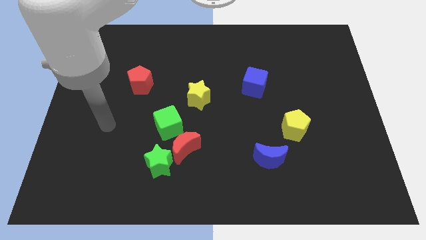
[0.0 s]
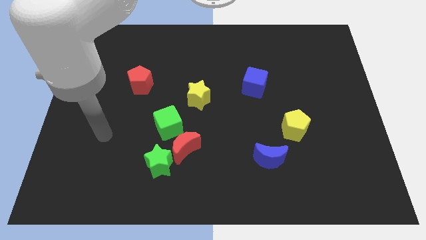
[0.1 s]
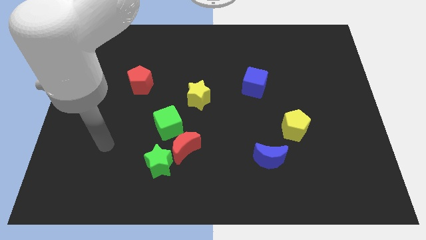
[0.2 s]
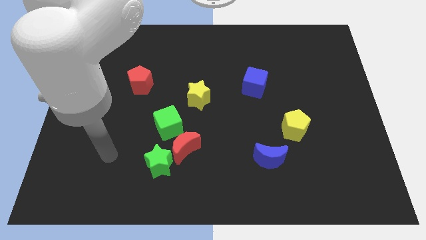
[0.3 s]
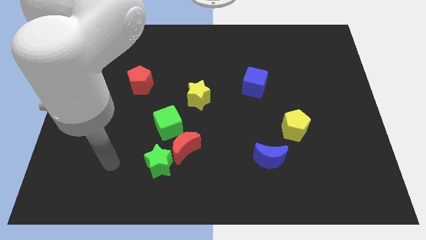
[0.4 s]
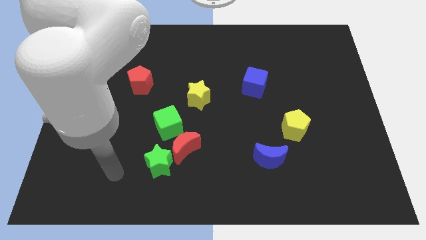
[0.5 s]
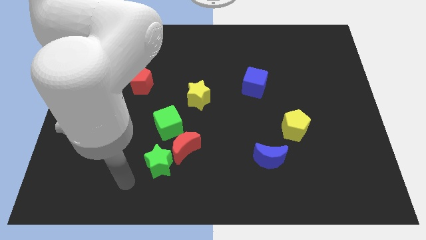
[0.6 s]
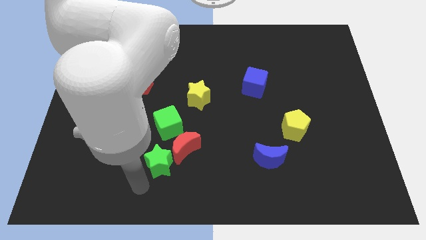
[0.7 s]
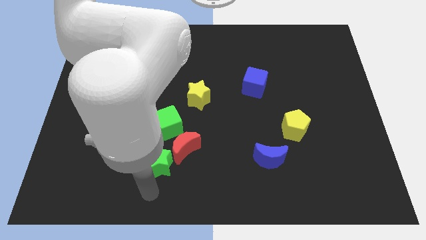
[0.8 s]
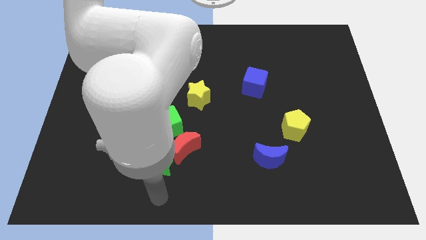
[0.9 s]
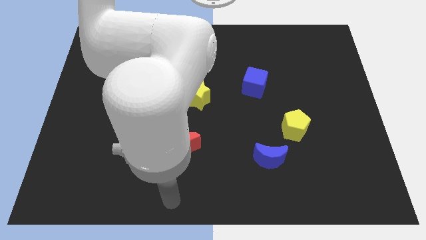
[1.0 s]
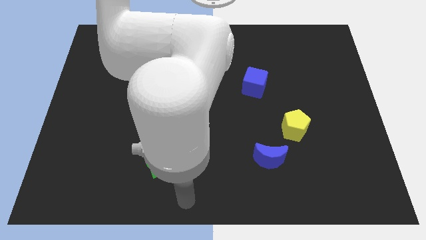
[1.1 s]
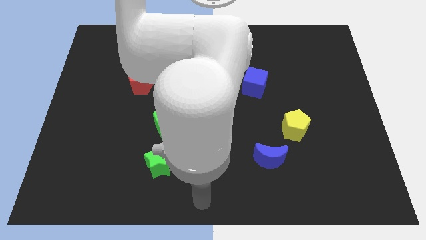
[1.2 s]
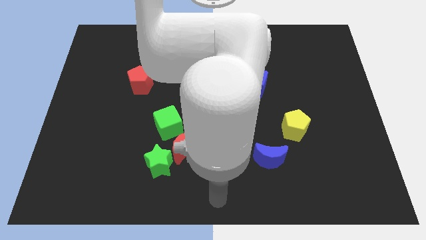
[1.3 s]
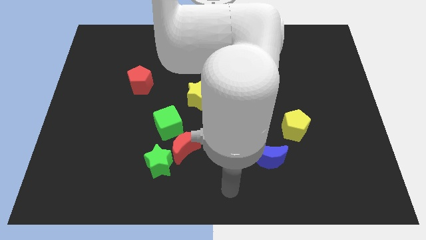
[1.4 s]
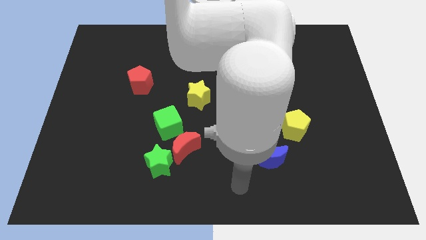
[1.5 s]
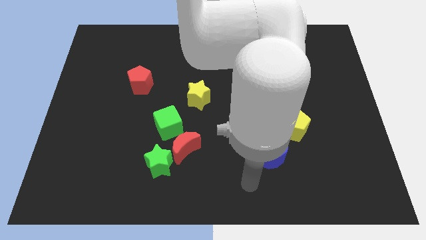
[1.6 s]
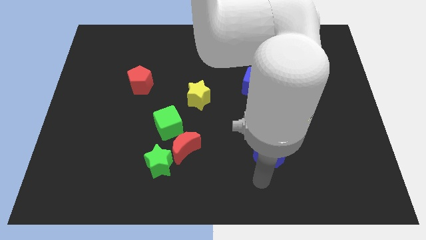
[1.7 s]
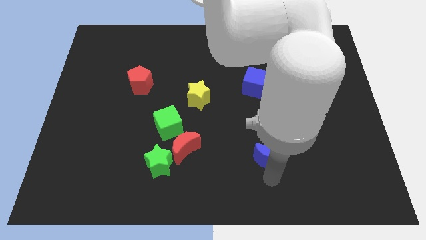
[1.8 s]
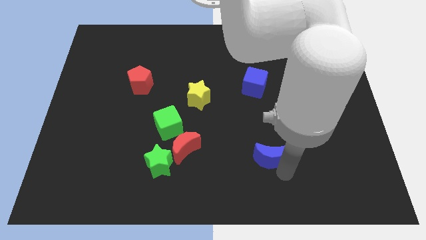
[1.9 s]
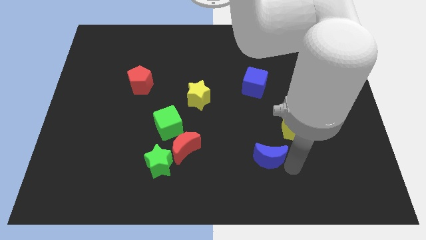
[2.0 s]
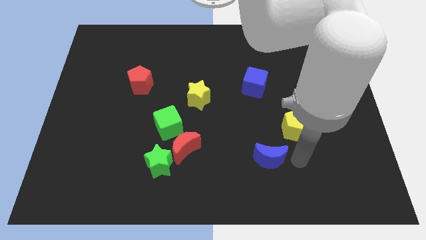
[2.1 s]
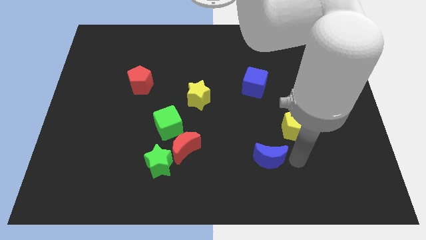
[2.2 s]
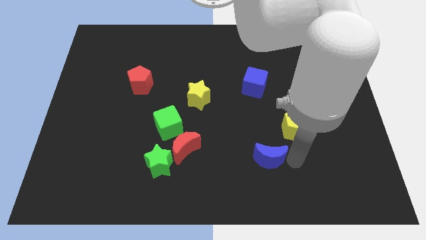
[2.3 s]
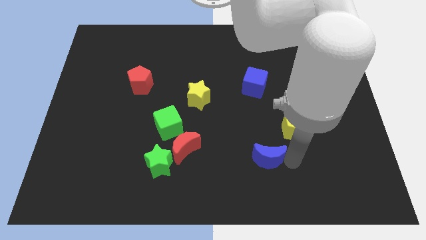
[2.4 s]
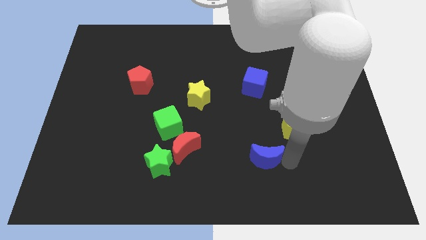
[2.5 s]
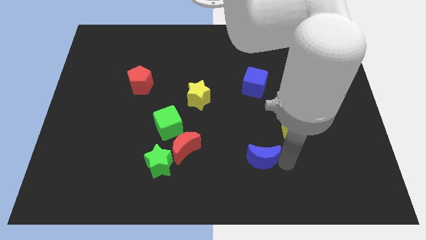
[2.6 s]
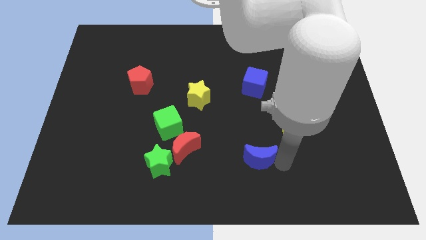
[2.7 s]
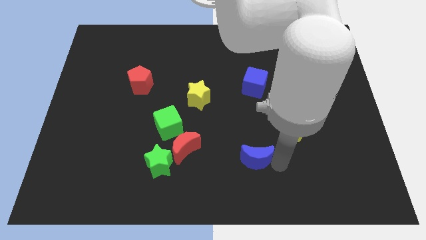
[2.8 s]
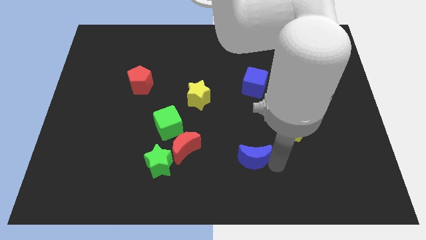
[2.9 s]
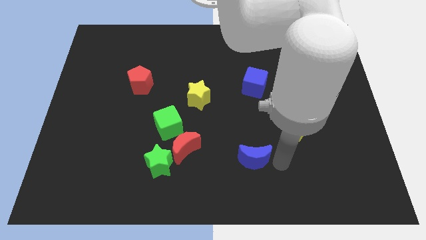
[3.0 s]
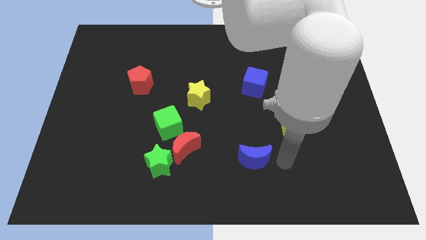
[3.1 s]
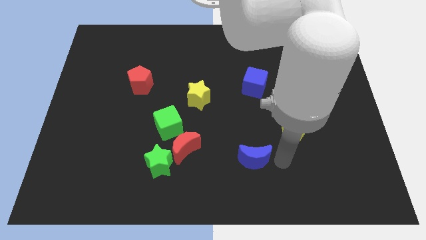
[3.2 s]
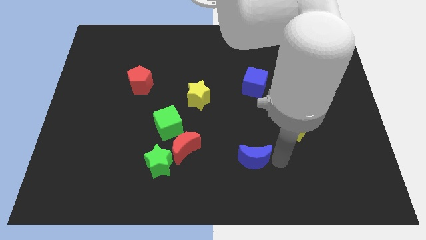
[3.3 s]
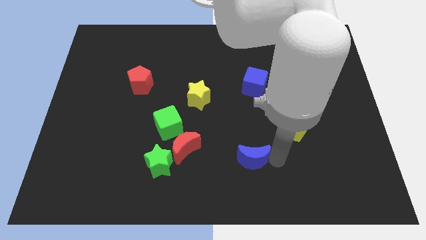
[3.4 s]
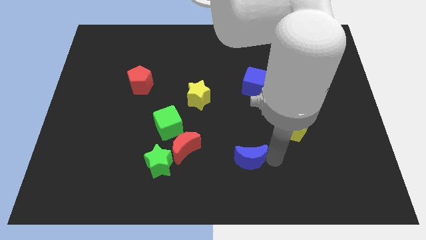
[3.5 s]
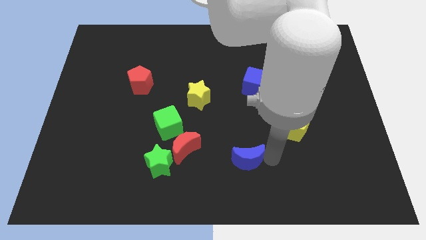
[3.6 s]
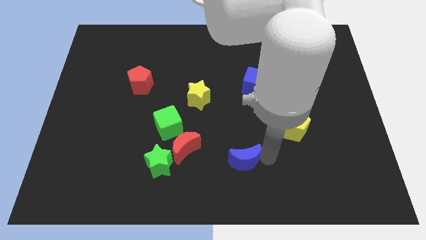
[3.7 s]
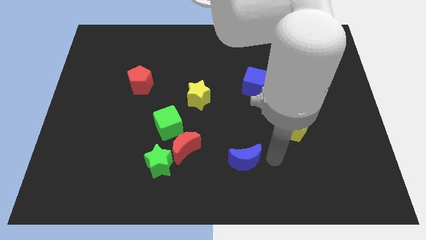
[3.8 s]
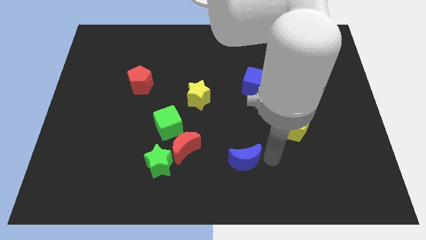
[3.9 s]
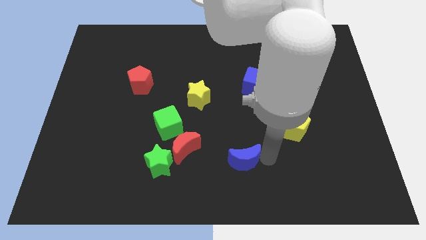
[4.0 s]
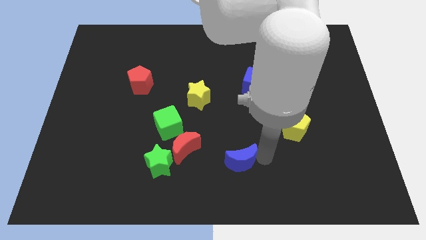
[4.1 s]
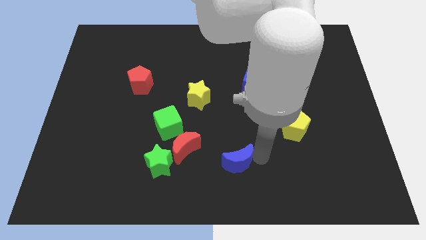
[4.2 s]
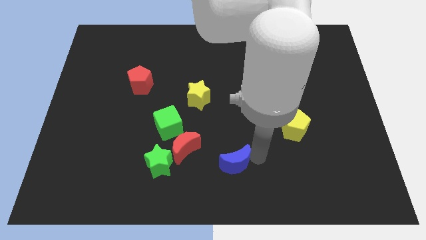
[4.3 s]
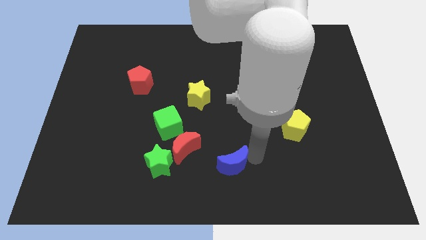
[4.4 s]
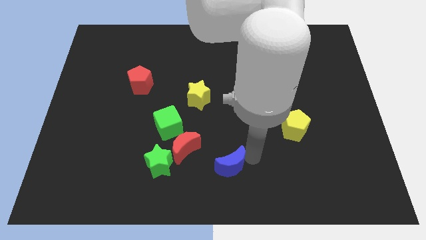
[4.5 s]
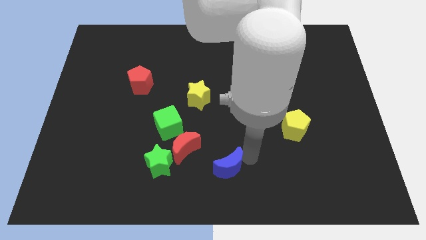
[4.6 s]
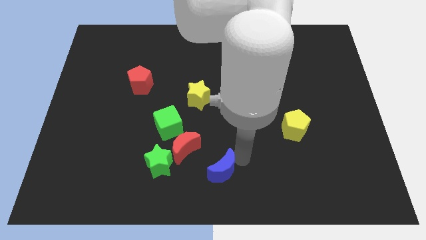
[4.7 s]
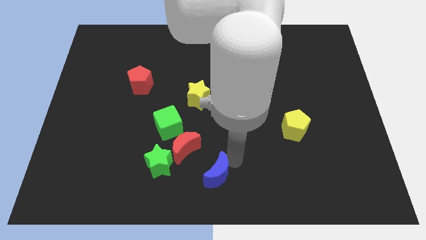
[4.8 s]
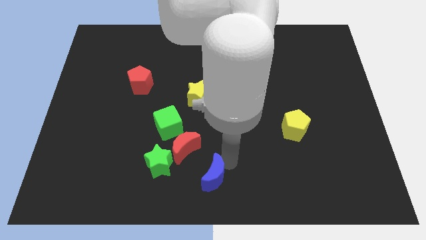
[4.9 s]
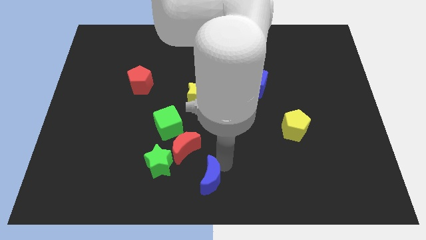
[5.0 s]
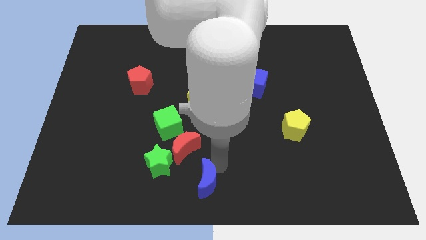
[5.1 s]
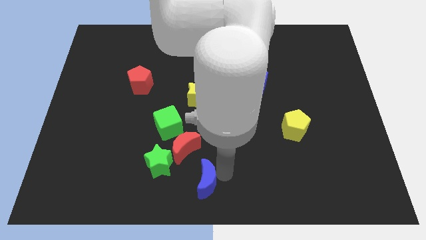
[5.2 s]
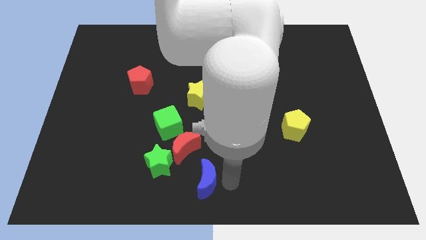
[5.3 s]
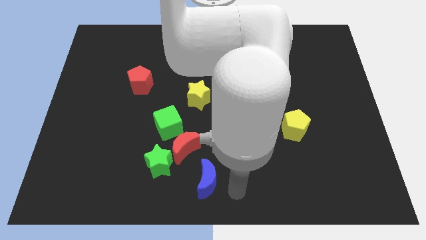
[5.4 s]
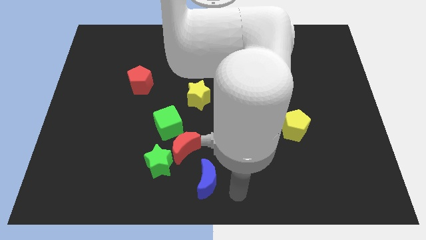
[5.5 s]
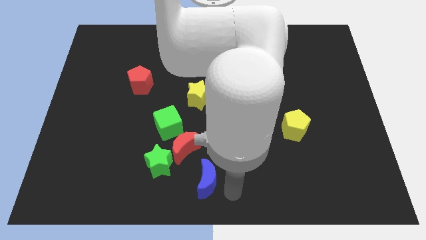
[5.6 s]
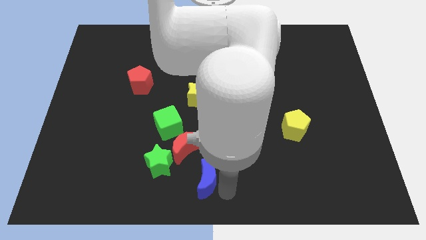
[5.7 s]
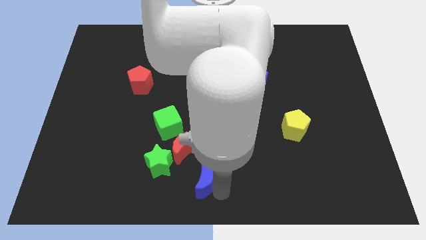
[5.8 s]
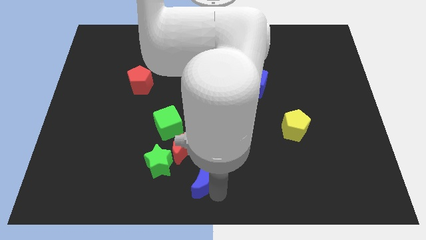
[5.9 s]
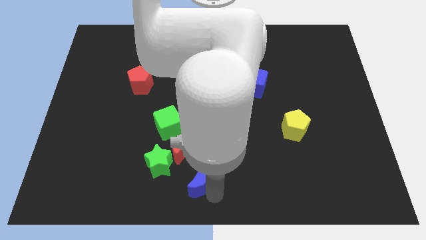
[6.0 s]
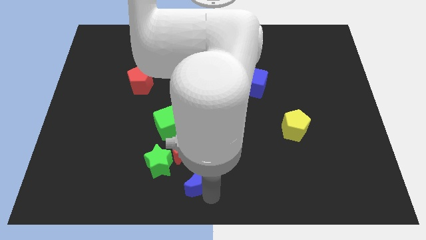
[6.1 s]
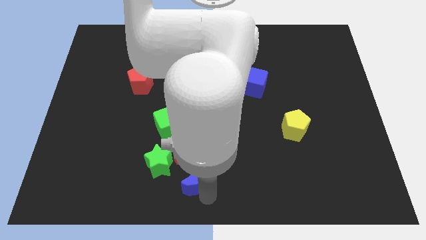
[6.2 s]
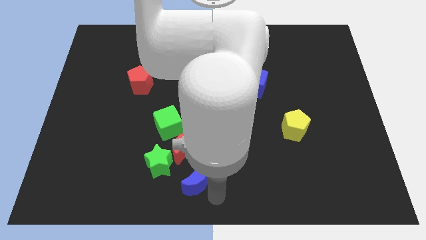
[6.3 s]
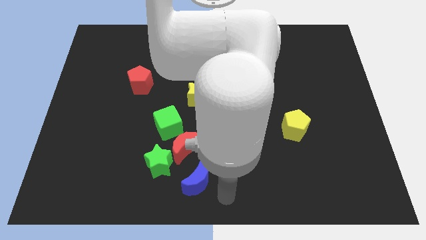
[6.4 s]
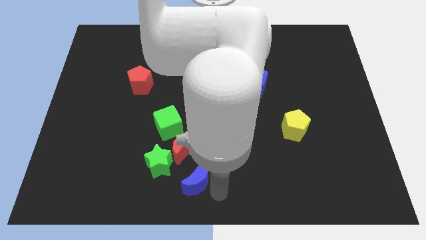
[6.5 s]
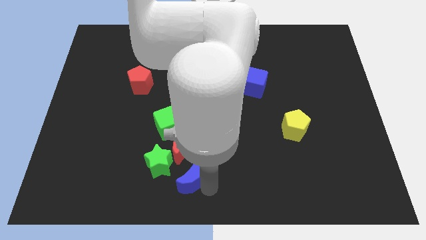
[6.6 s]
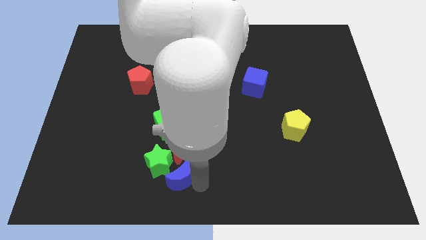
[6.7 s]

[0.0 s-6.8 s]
move the blue moon towards the green star
